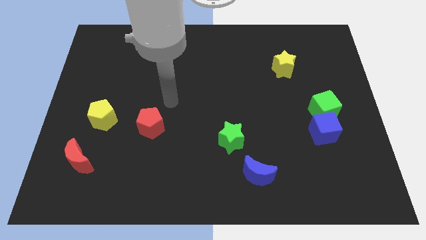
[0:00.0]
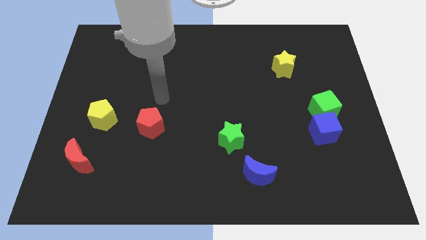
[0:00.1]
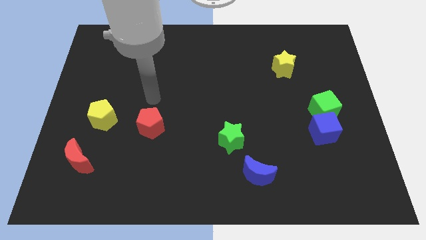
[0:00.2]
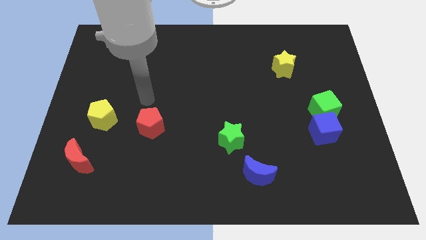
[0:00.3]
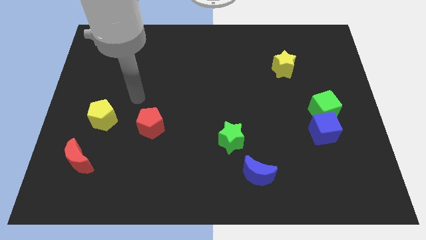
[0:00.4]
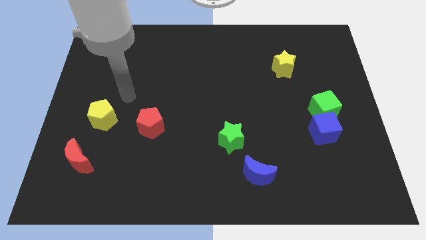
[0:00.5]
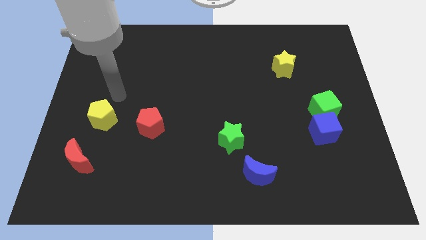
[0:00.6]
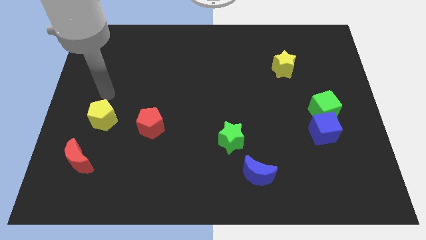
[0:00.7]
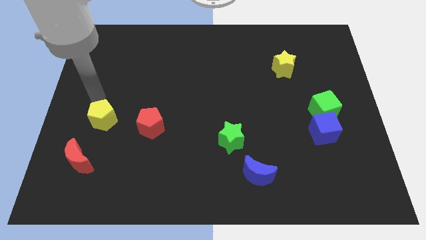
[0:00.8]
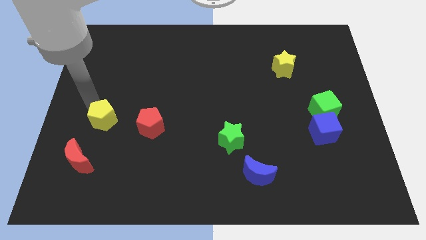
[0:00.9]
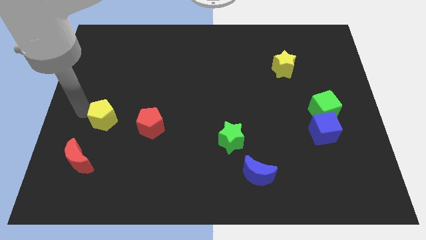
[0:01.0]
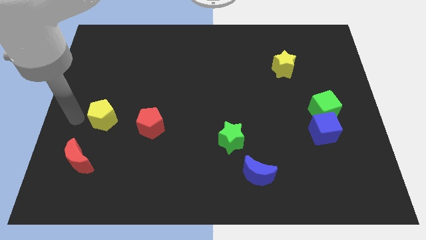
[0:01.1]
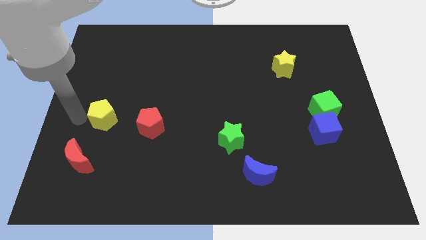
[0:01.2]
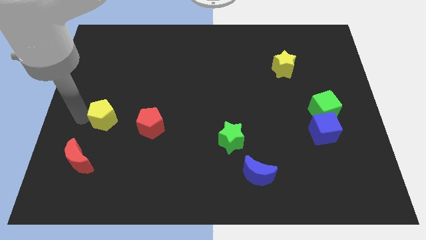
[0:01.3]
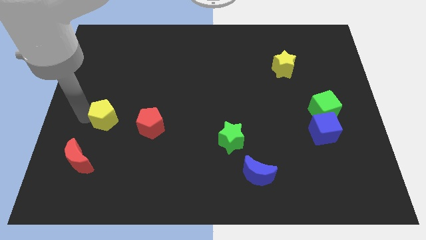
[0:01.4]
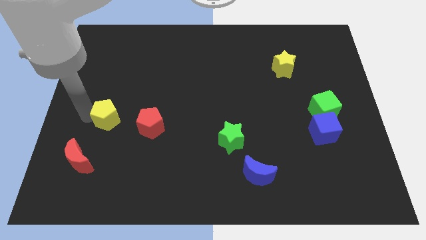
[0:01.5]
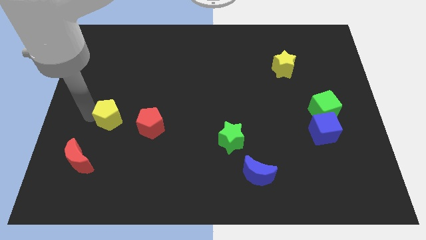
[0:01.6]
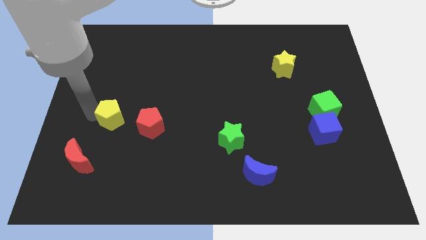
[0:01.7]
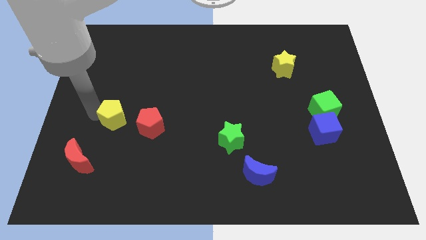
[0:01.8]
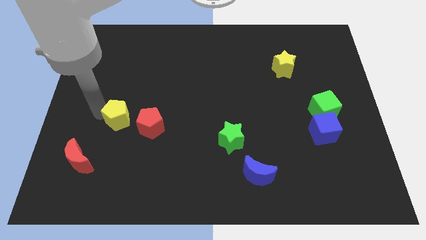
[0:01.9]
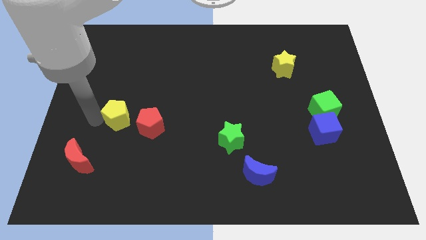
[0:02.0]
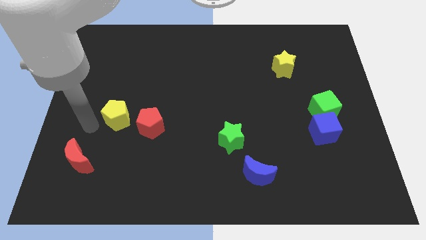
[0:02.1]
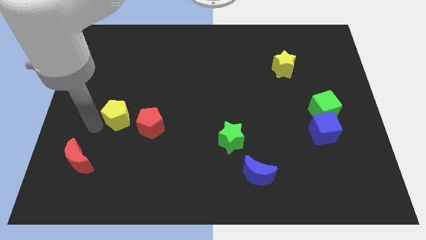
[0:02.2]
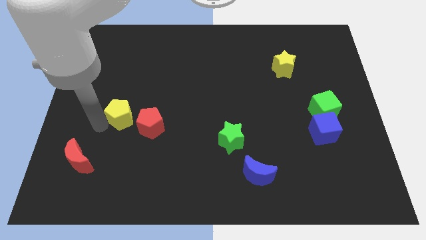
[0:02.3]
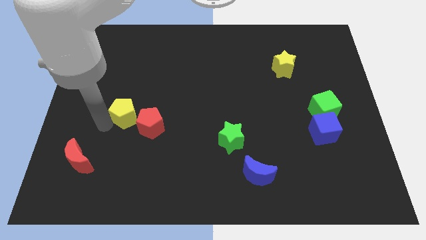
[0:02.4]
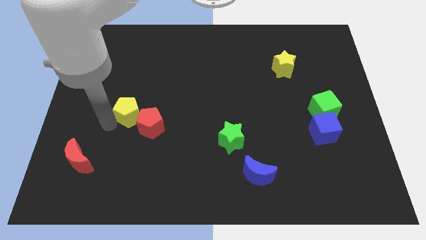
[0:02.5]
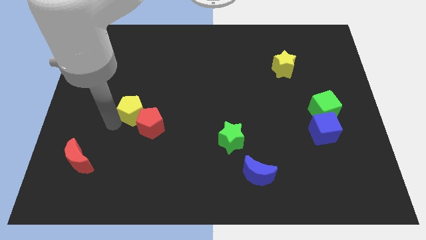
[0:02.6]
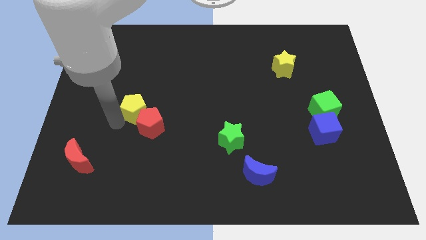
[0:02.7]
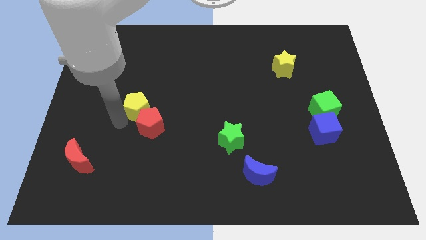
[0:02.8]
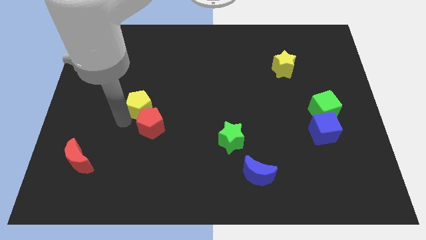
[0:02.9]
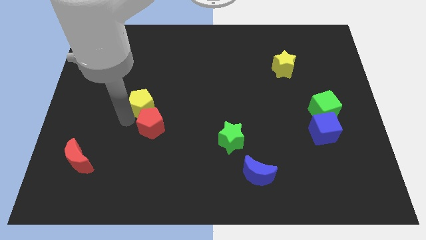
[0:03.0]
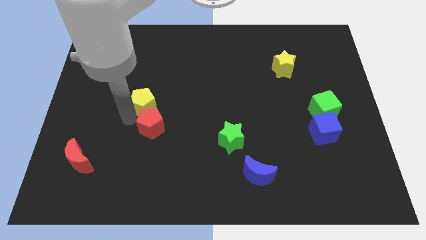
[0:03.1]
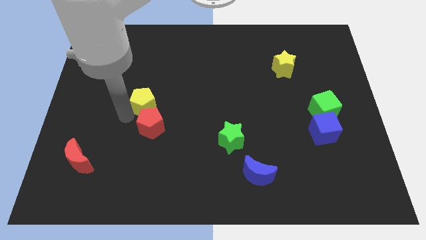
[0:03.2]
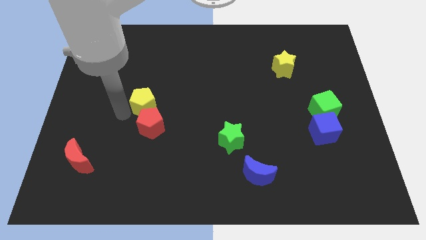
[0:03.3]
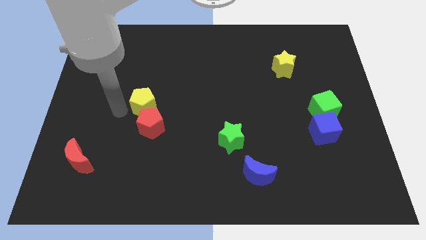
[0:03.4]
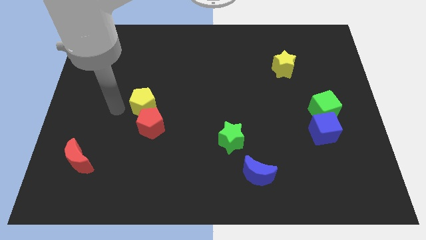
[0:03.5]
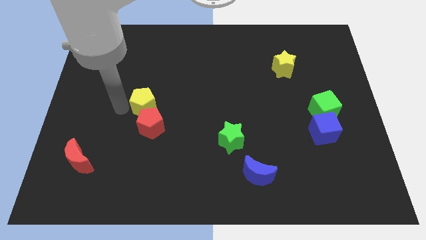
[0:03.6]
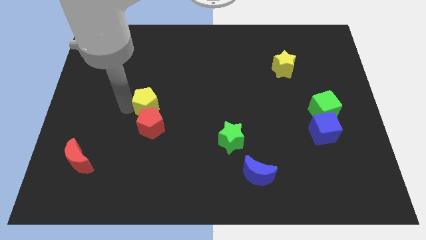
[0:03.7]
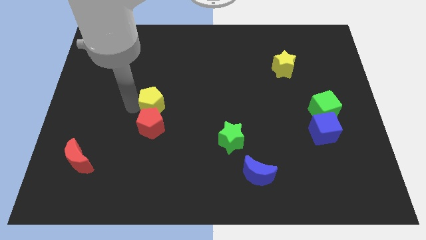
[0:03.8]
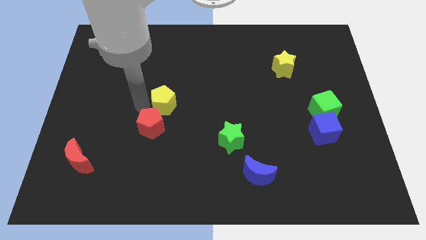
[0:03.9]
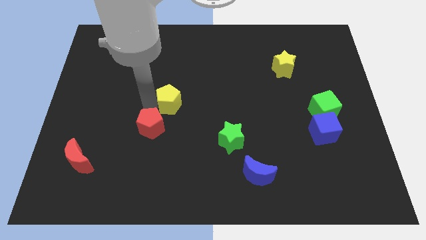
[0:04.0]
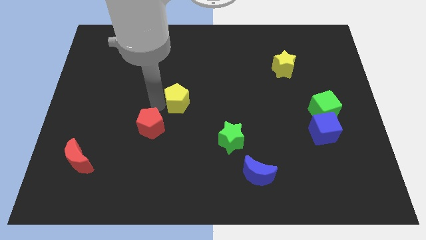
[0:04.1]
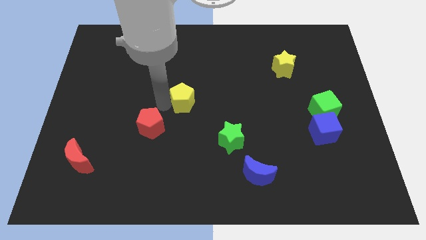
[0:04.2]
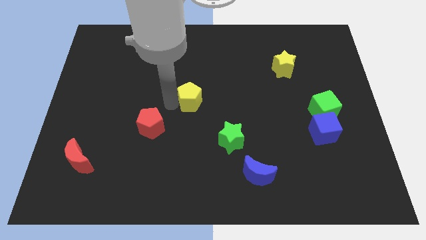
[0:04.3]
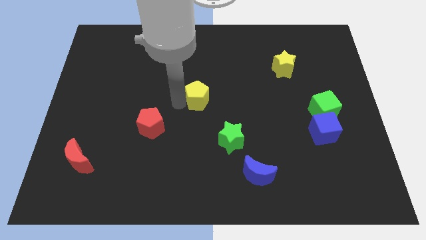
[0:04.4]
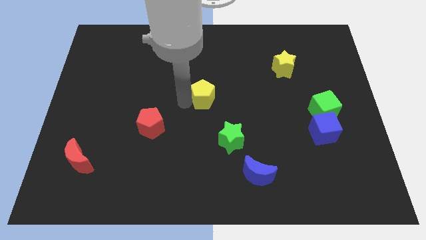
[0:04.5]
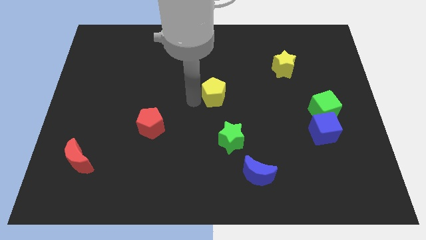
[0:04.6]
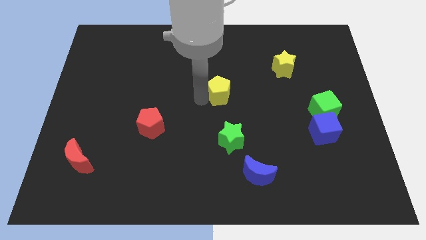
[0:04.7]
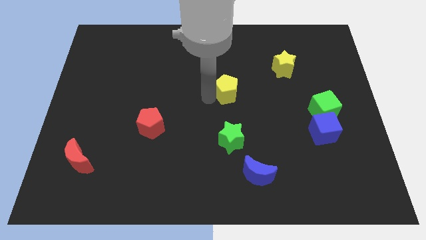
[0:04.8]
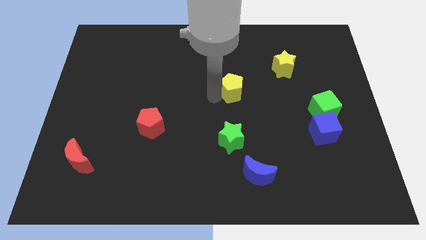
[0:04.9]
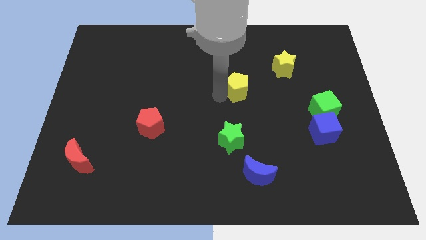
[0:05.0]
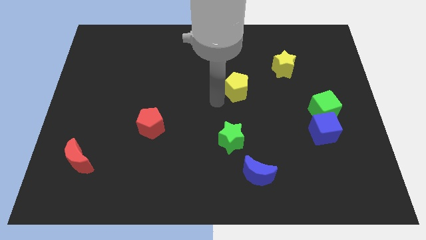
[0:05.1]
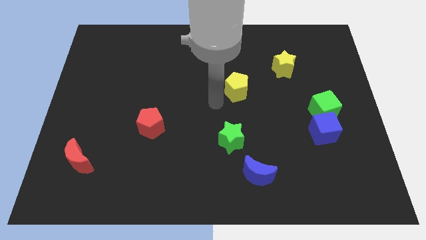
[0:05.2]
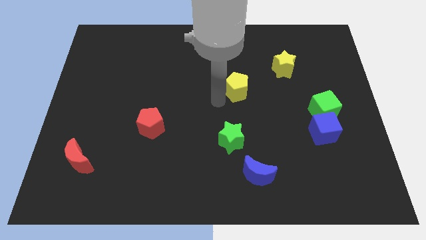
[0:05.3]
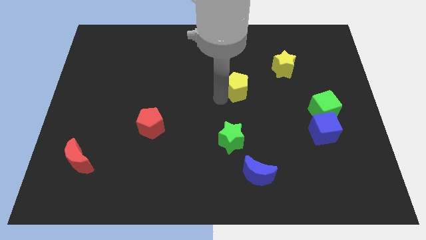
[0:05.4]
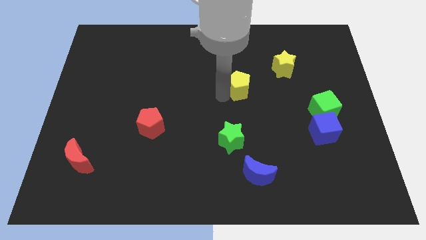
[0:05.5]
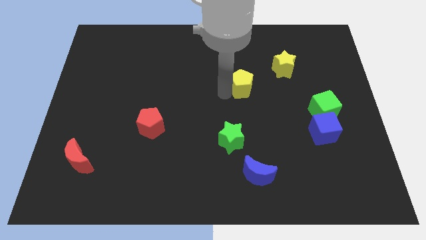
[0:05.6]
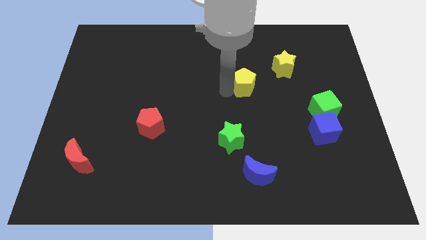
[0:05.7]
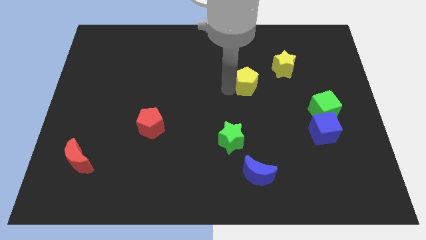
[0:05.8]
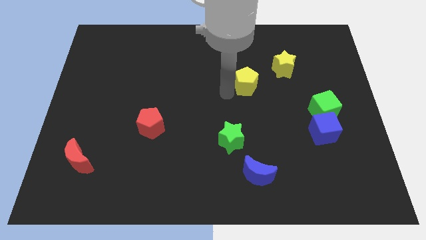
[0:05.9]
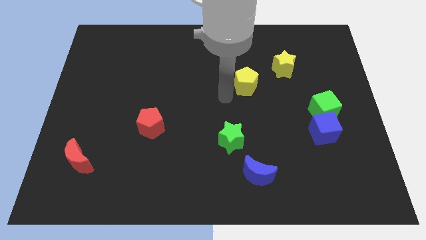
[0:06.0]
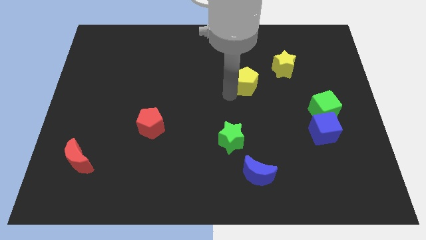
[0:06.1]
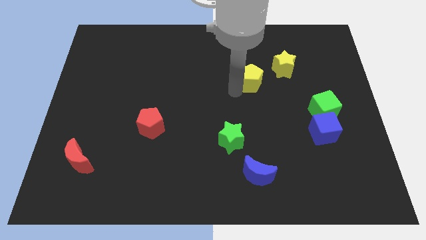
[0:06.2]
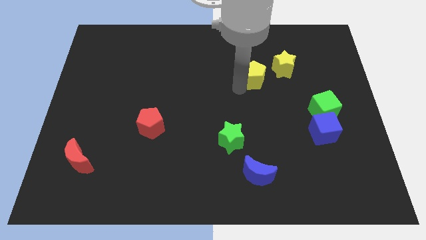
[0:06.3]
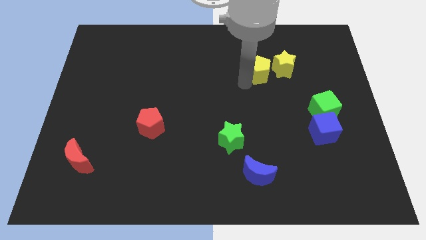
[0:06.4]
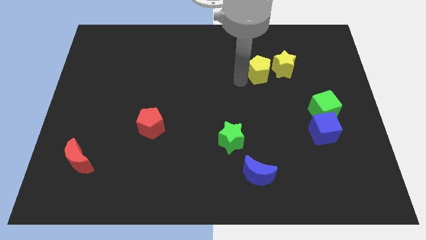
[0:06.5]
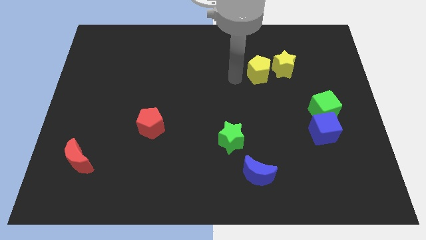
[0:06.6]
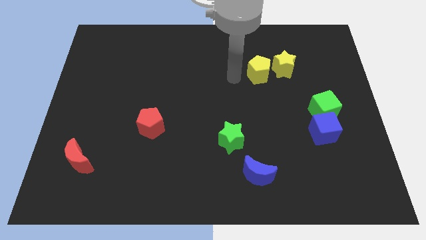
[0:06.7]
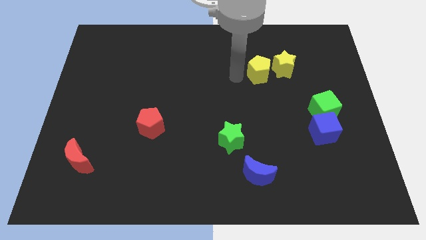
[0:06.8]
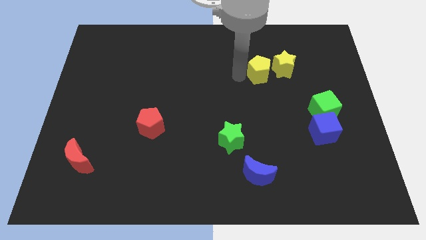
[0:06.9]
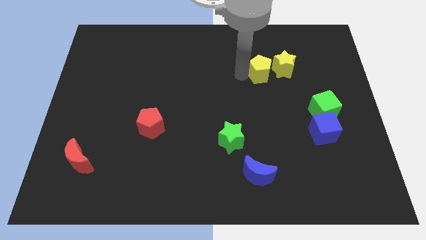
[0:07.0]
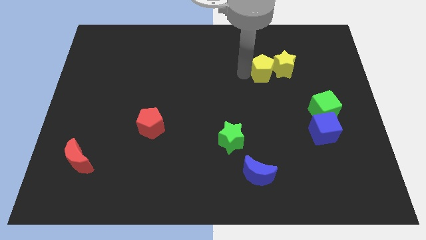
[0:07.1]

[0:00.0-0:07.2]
move the yellow pentagon towards the yellow star
